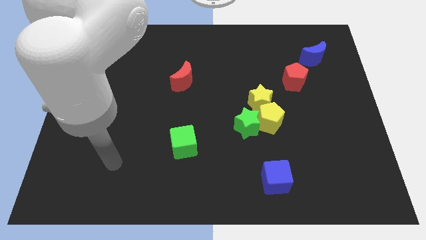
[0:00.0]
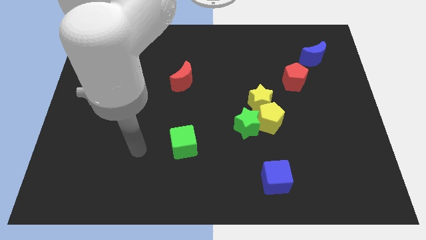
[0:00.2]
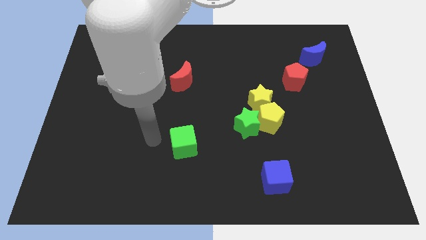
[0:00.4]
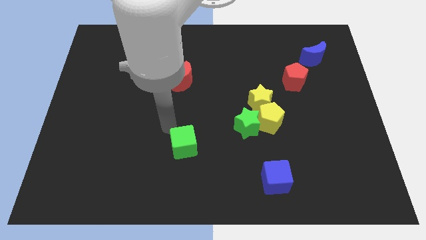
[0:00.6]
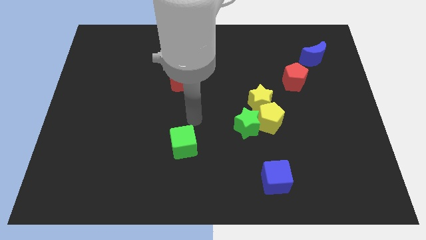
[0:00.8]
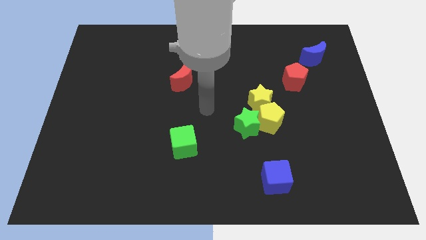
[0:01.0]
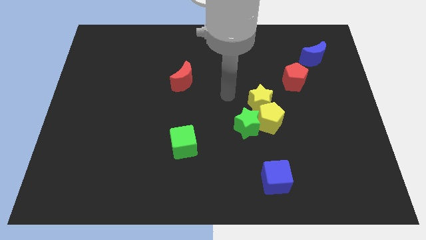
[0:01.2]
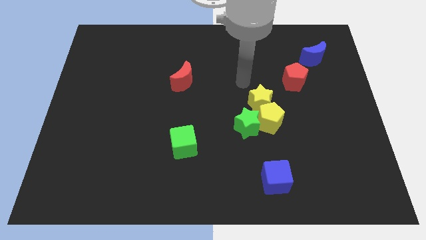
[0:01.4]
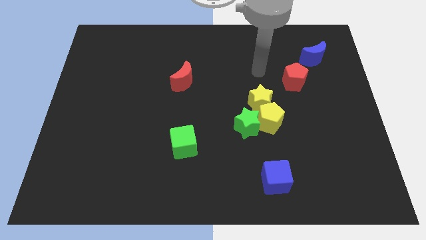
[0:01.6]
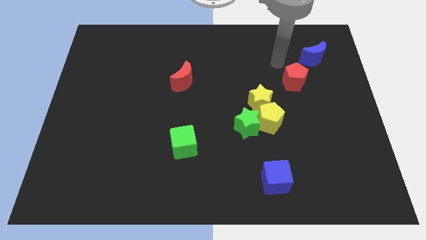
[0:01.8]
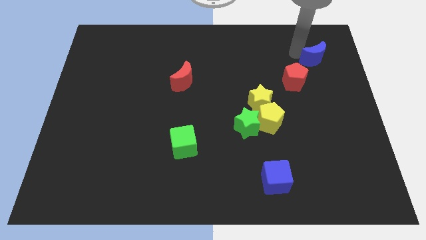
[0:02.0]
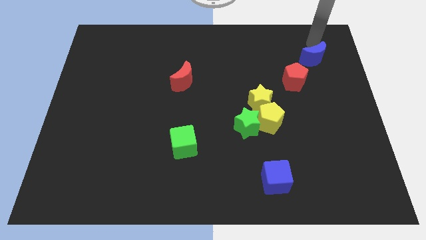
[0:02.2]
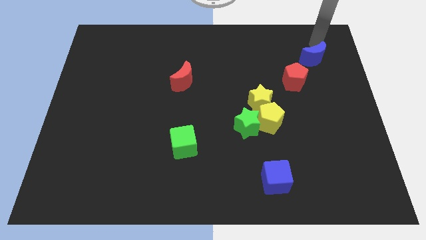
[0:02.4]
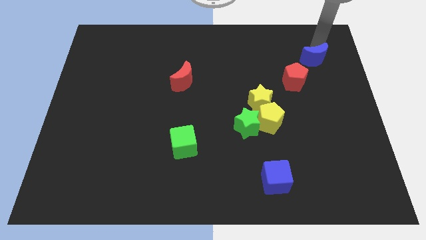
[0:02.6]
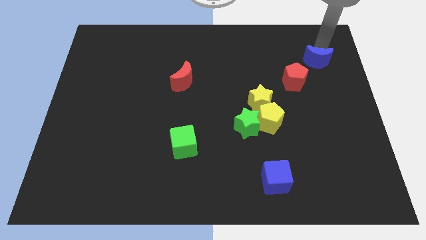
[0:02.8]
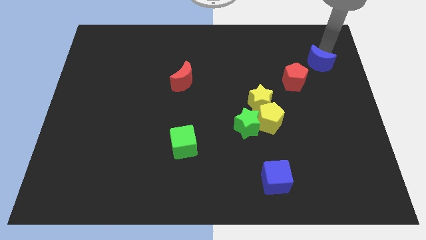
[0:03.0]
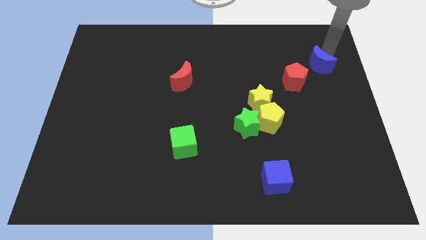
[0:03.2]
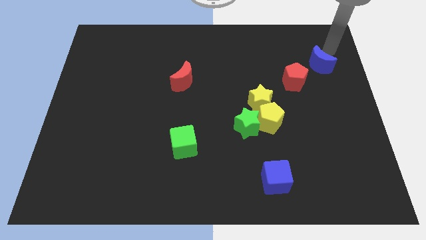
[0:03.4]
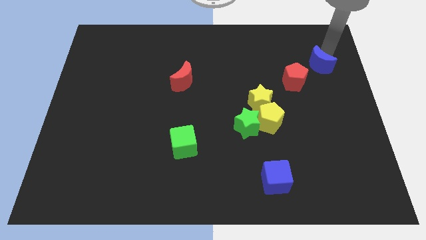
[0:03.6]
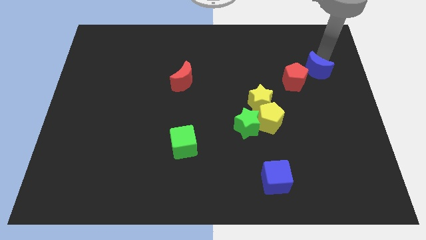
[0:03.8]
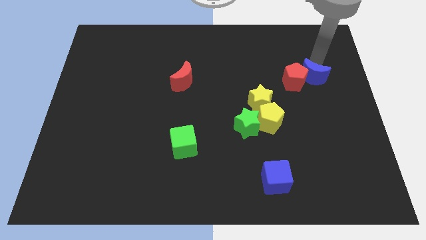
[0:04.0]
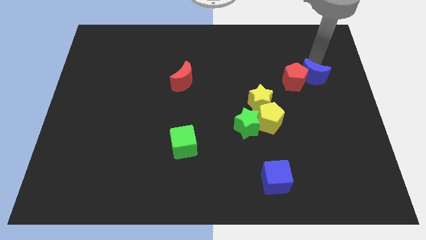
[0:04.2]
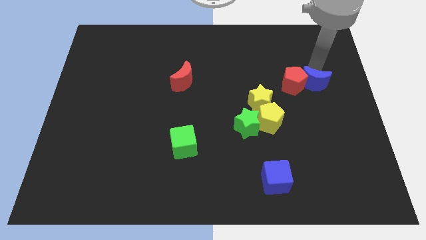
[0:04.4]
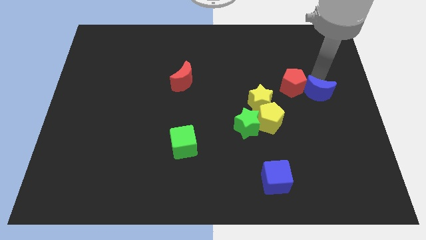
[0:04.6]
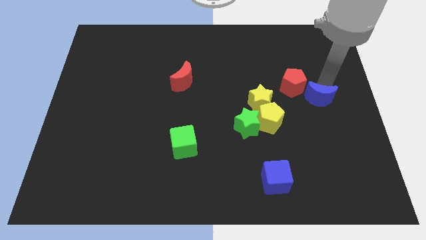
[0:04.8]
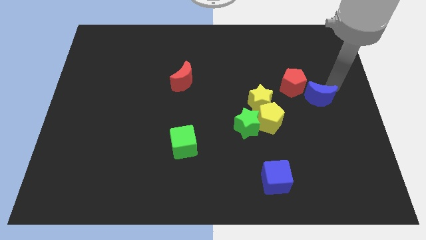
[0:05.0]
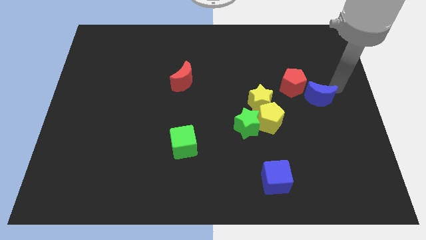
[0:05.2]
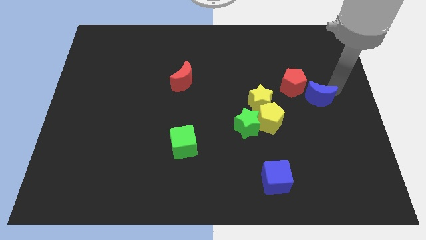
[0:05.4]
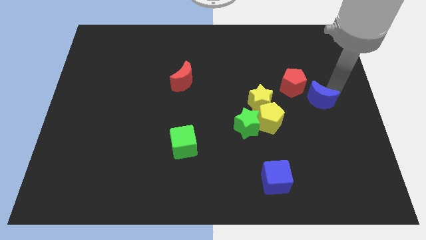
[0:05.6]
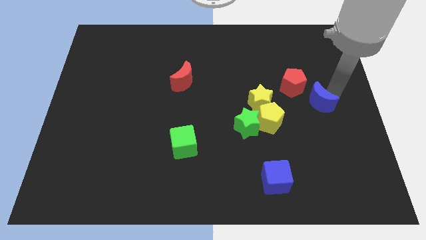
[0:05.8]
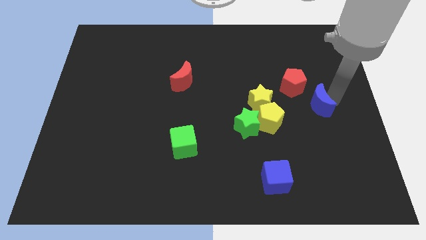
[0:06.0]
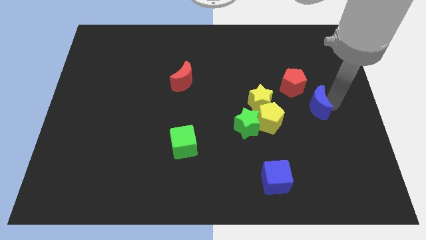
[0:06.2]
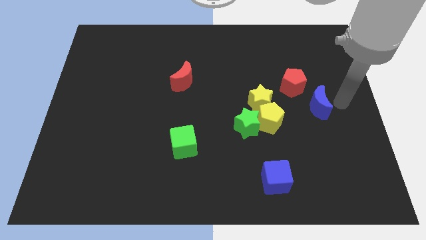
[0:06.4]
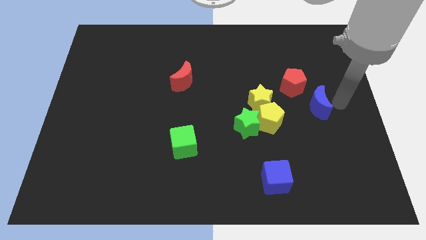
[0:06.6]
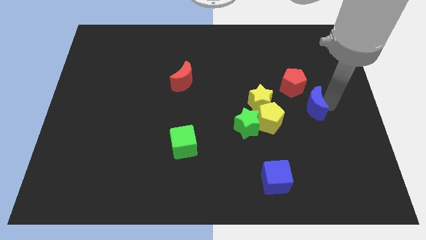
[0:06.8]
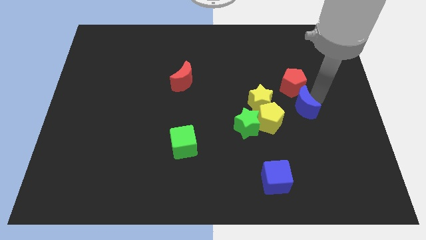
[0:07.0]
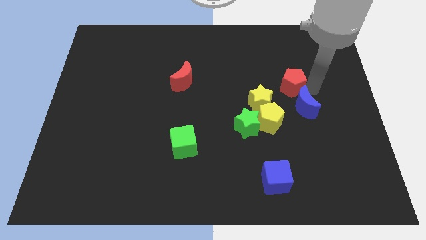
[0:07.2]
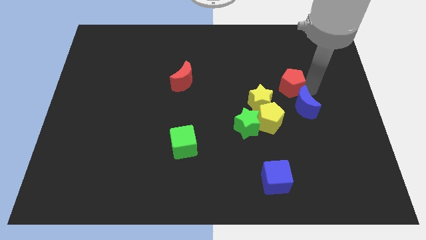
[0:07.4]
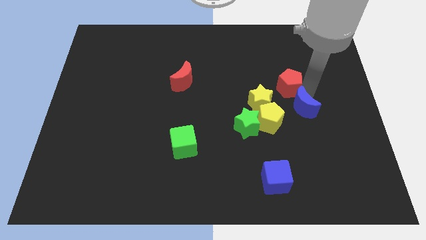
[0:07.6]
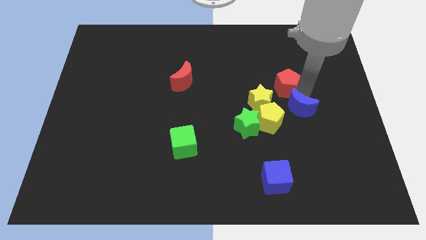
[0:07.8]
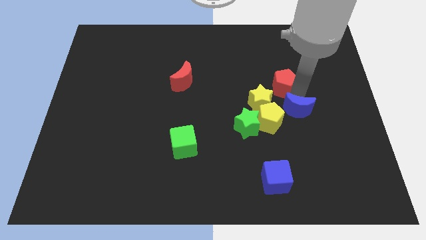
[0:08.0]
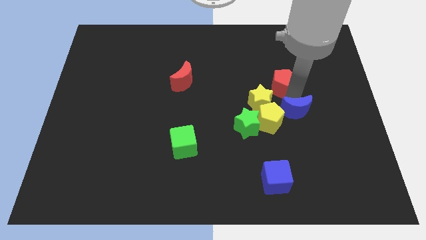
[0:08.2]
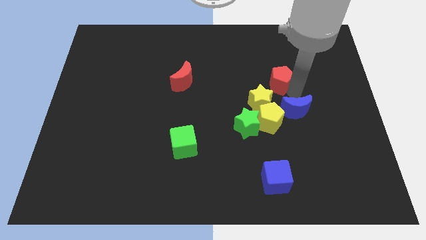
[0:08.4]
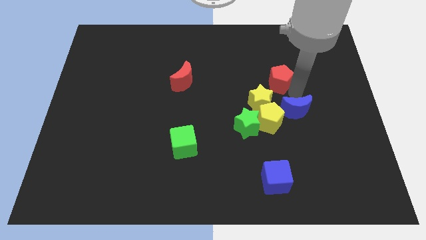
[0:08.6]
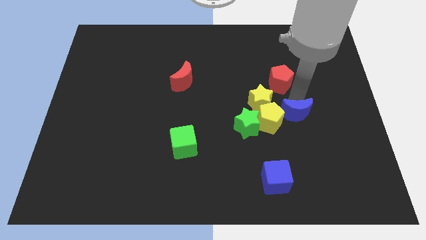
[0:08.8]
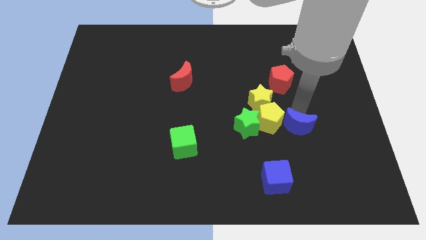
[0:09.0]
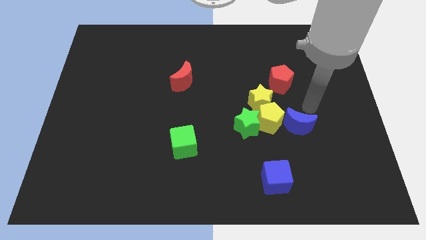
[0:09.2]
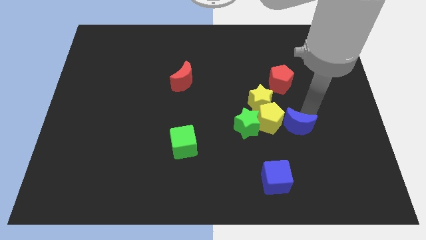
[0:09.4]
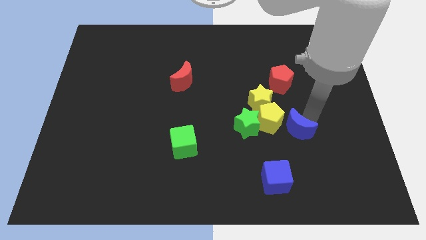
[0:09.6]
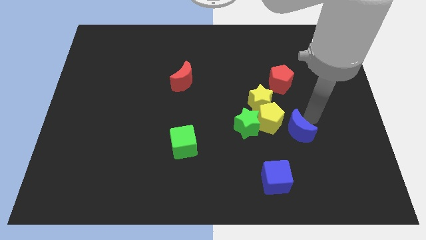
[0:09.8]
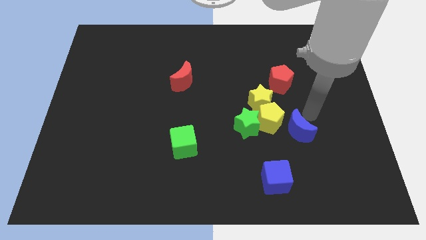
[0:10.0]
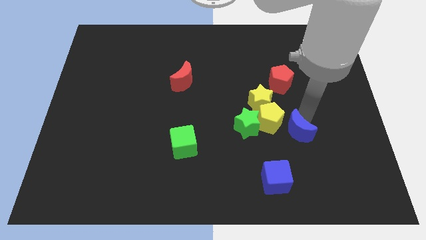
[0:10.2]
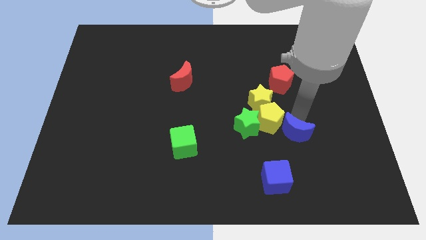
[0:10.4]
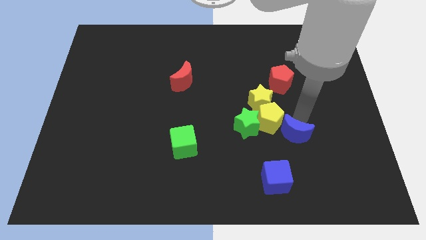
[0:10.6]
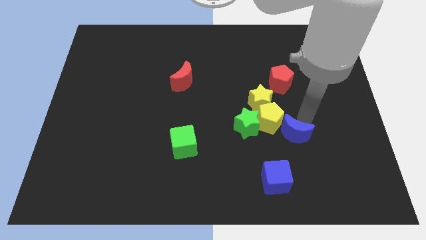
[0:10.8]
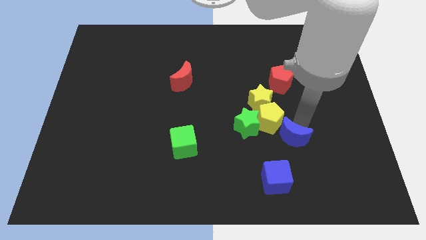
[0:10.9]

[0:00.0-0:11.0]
put the blue moon below the yellow pentagon

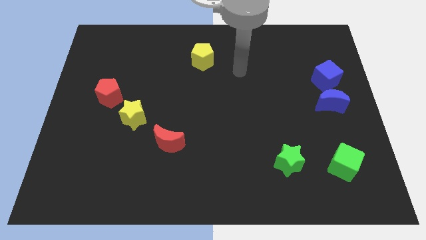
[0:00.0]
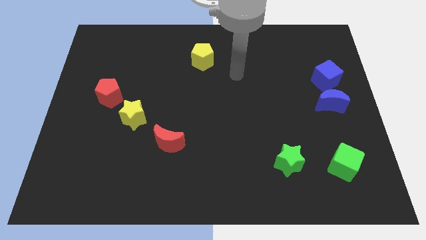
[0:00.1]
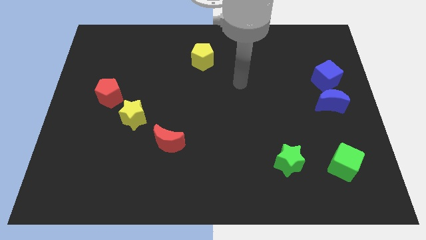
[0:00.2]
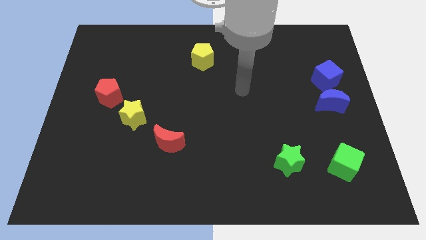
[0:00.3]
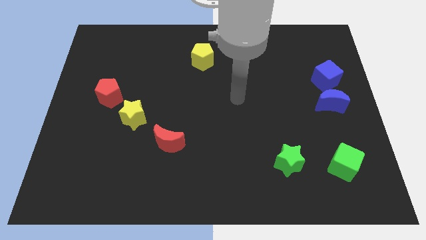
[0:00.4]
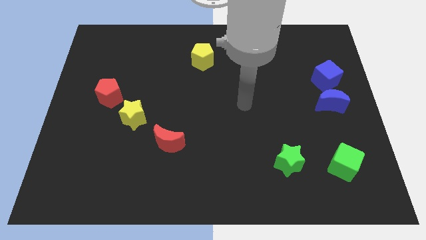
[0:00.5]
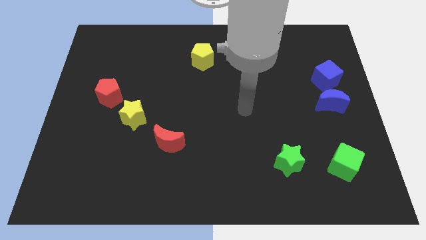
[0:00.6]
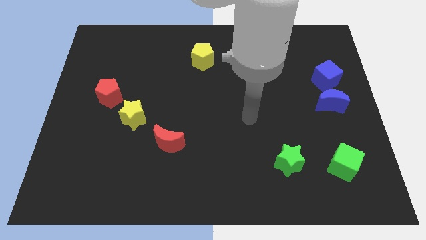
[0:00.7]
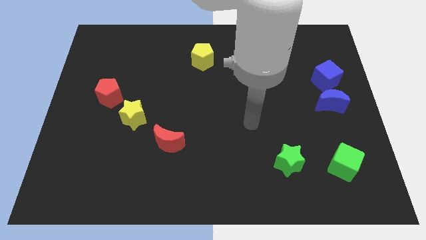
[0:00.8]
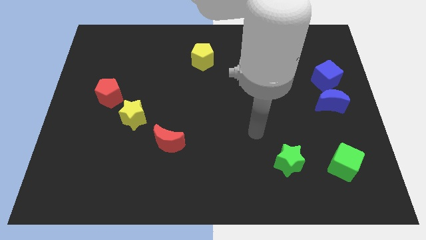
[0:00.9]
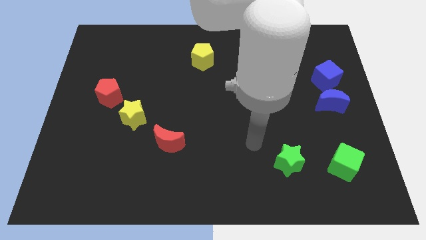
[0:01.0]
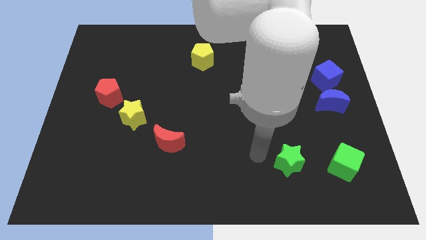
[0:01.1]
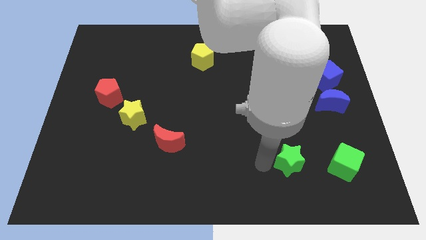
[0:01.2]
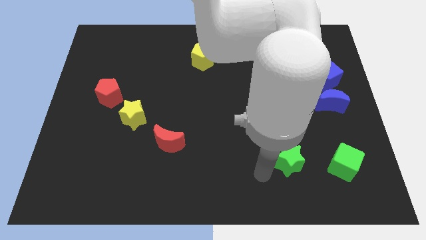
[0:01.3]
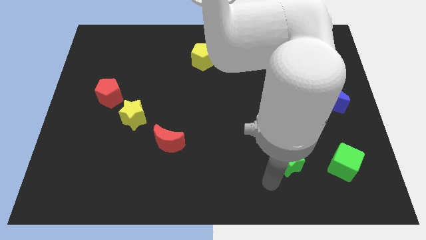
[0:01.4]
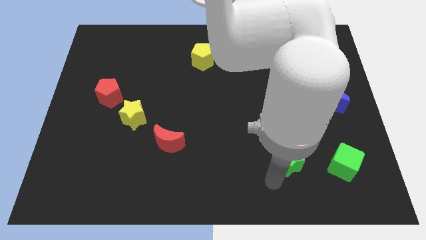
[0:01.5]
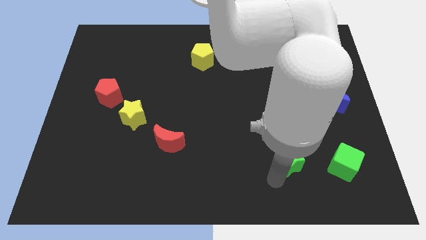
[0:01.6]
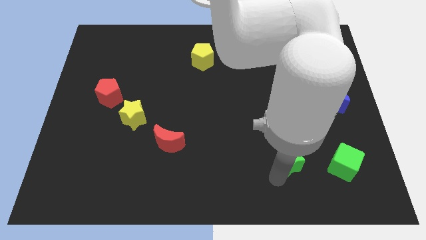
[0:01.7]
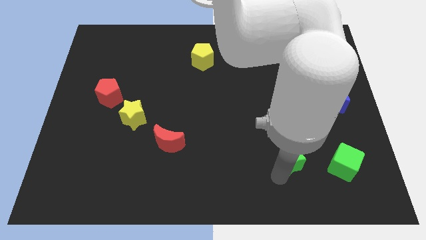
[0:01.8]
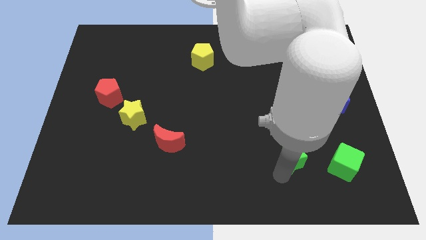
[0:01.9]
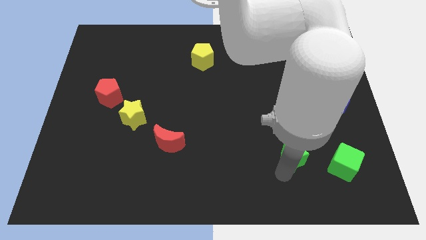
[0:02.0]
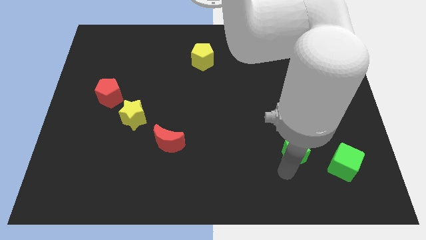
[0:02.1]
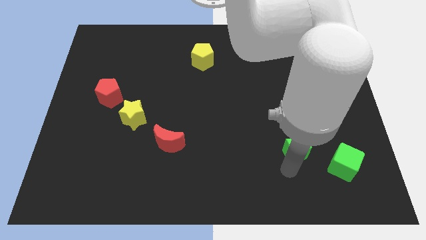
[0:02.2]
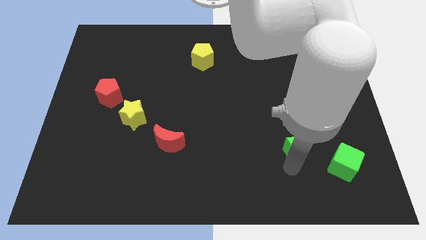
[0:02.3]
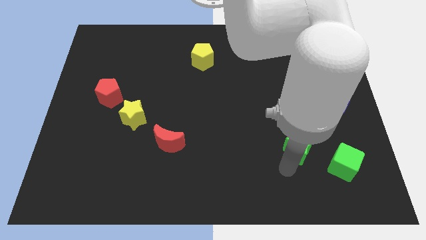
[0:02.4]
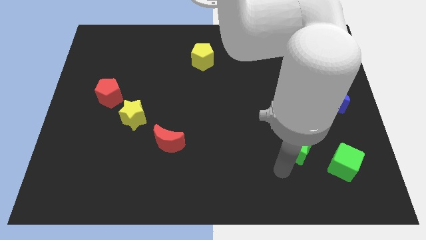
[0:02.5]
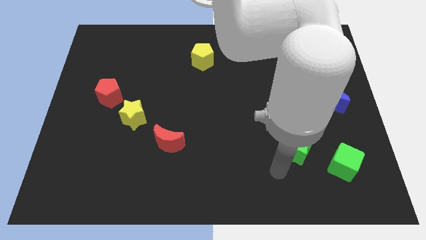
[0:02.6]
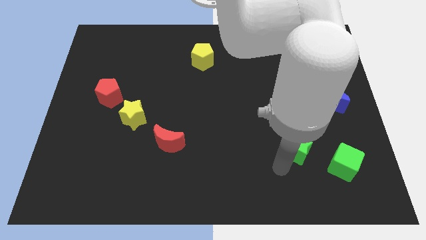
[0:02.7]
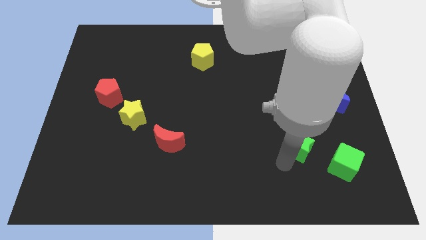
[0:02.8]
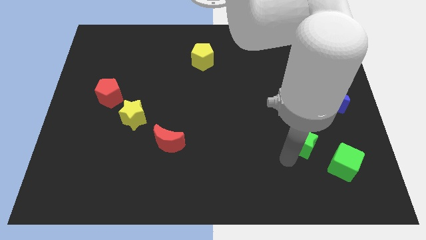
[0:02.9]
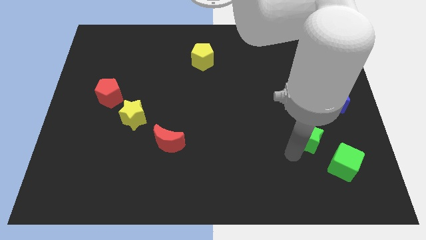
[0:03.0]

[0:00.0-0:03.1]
push the green star to the bottom left of the blue moon
